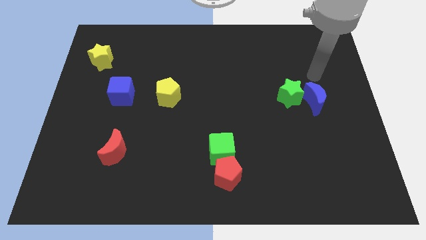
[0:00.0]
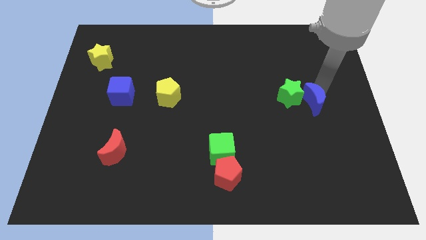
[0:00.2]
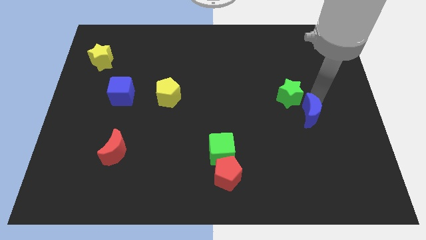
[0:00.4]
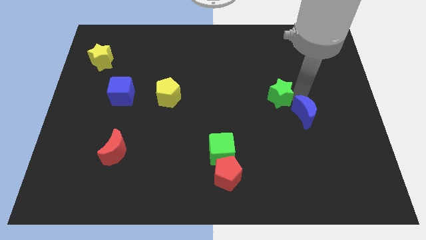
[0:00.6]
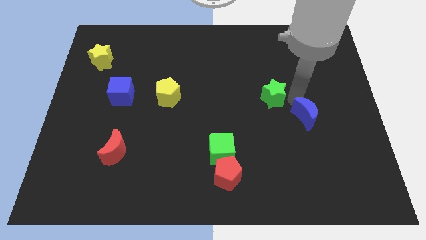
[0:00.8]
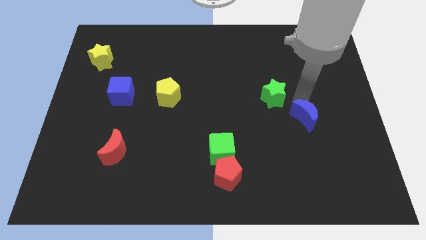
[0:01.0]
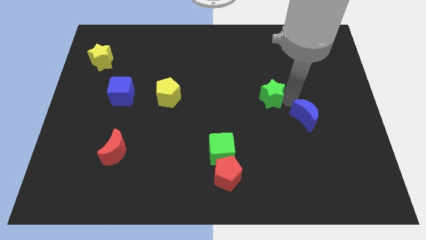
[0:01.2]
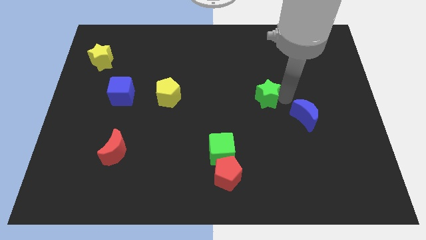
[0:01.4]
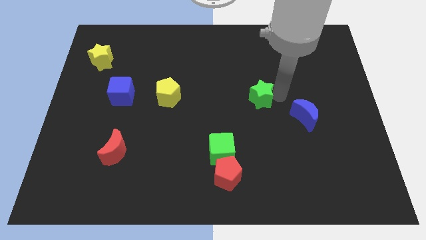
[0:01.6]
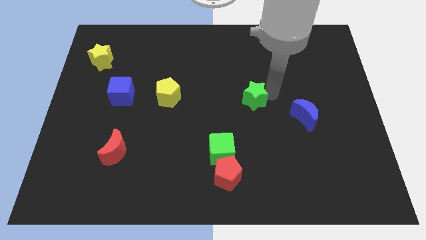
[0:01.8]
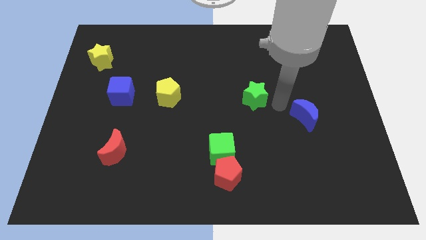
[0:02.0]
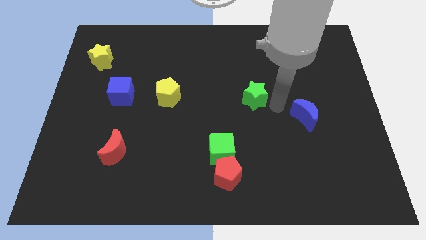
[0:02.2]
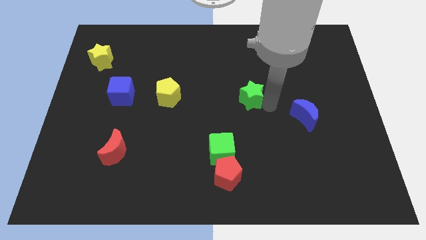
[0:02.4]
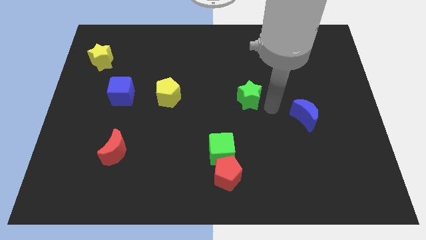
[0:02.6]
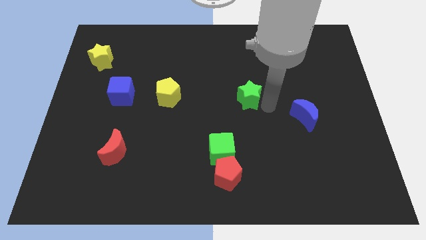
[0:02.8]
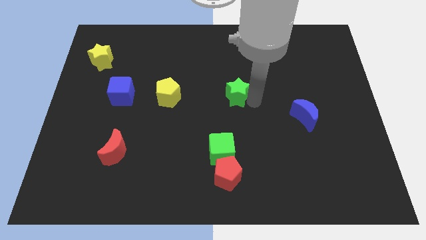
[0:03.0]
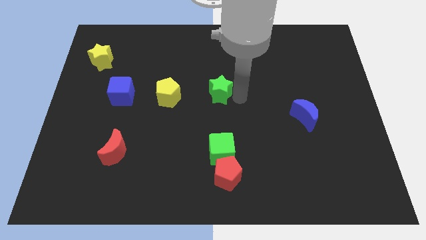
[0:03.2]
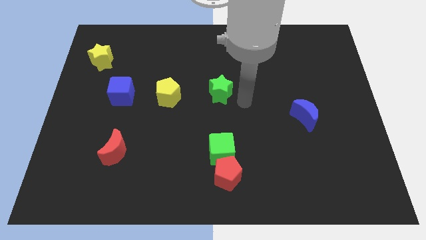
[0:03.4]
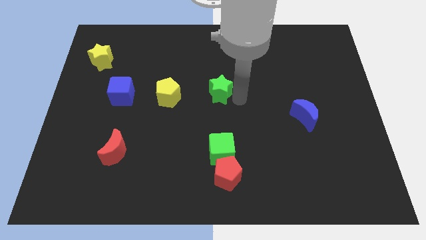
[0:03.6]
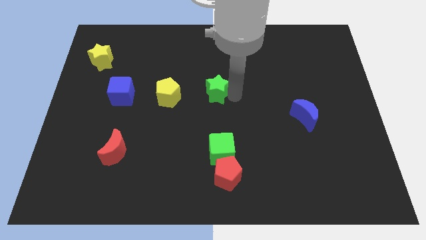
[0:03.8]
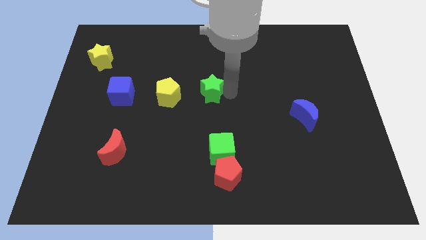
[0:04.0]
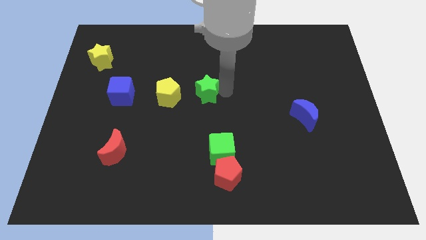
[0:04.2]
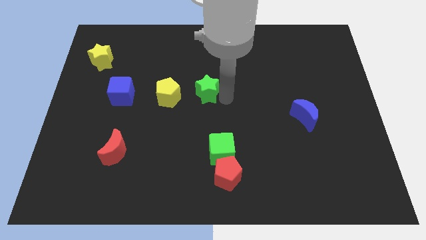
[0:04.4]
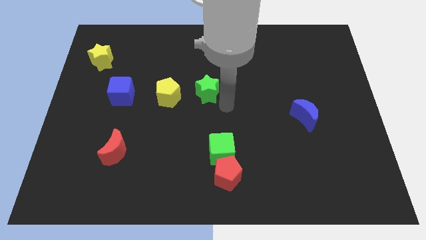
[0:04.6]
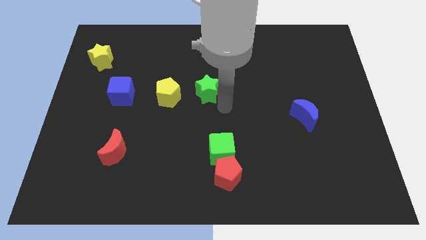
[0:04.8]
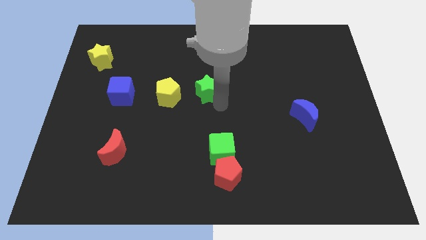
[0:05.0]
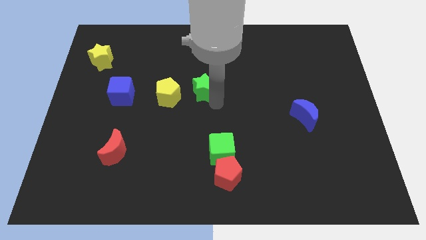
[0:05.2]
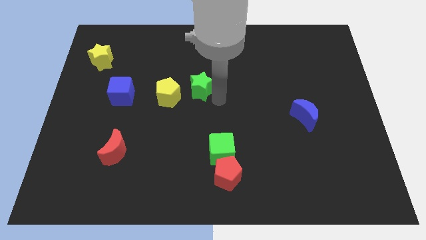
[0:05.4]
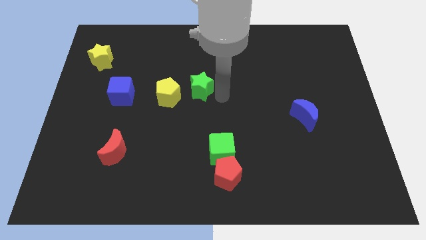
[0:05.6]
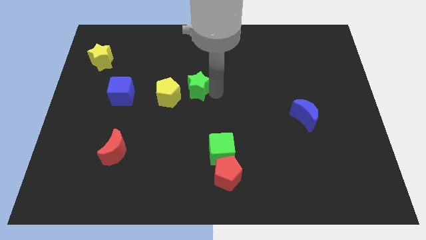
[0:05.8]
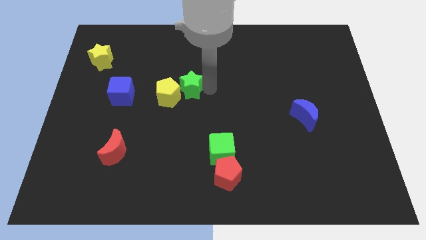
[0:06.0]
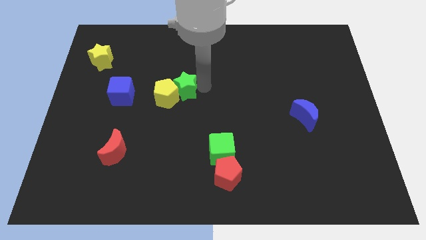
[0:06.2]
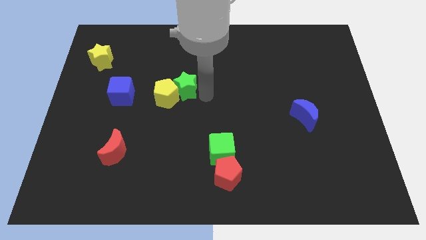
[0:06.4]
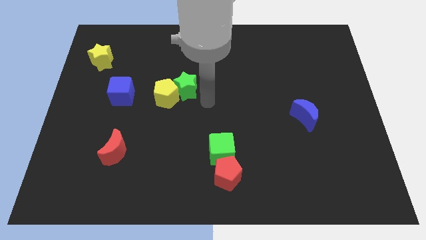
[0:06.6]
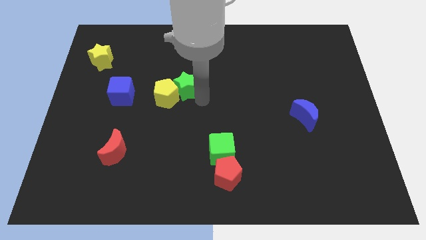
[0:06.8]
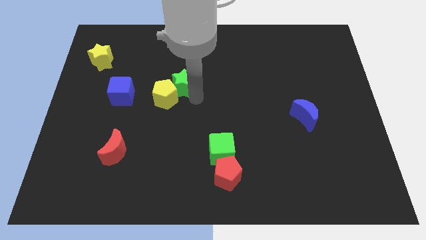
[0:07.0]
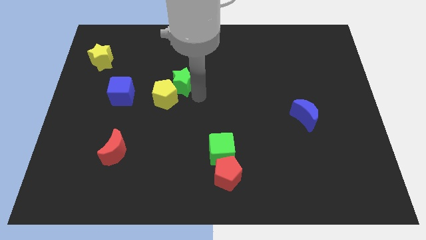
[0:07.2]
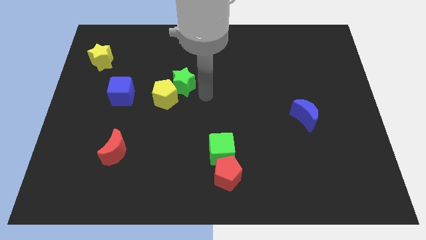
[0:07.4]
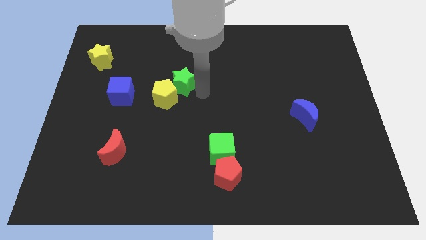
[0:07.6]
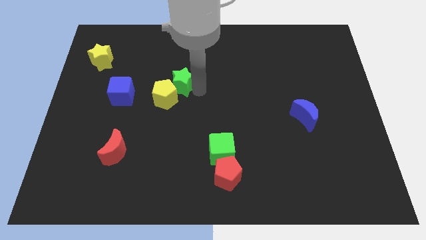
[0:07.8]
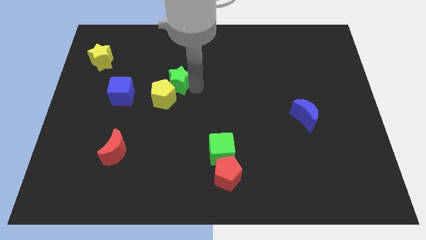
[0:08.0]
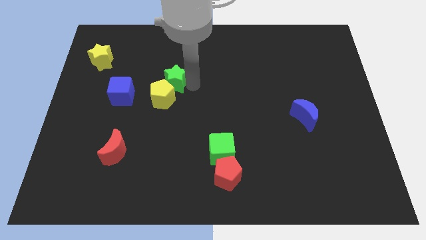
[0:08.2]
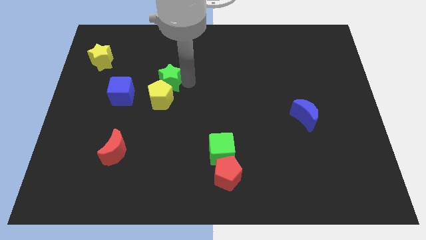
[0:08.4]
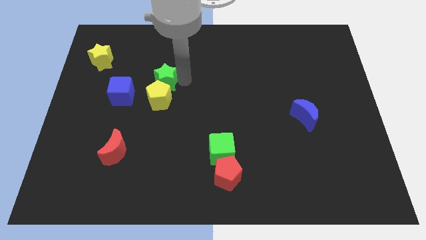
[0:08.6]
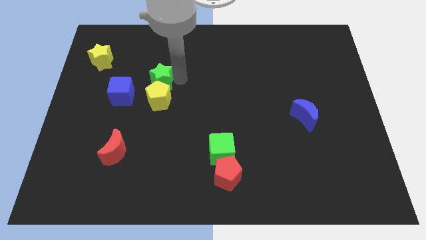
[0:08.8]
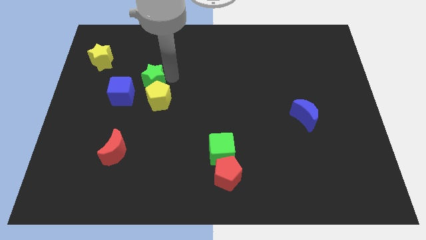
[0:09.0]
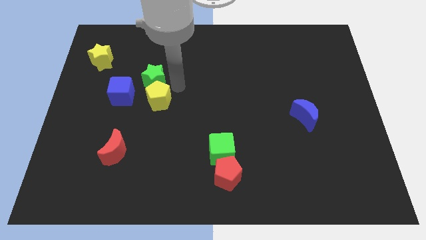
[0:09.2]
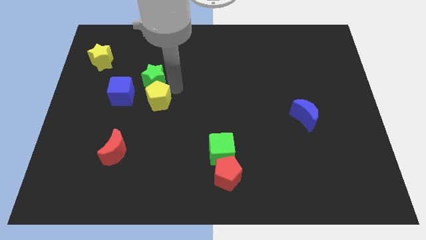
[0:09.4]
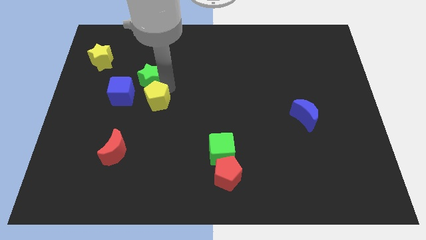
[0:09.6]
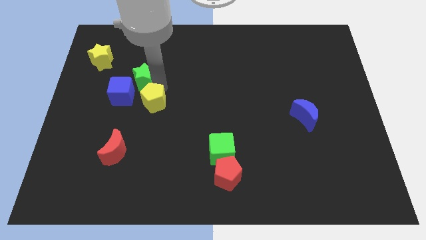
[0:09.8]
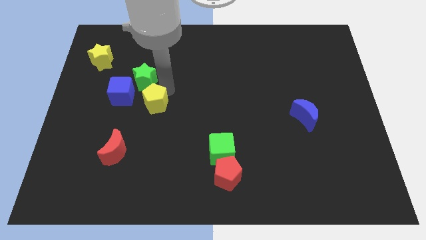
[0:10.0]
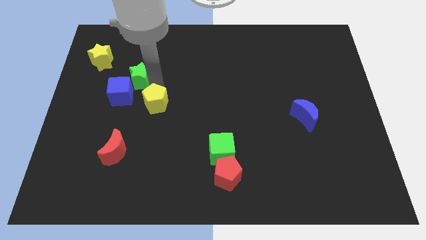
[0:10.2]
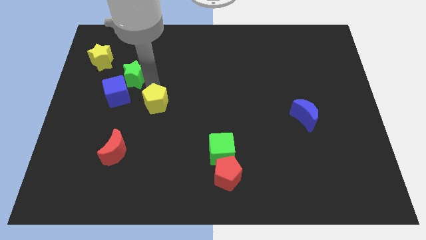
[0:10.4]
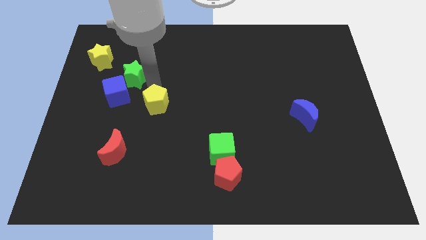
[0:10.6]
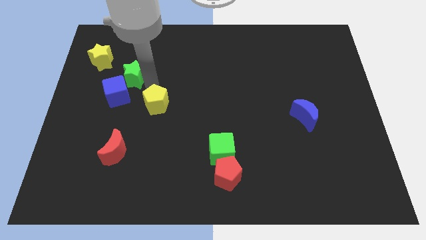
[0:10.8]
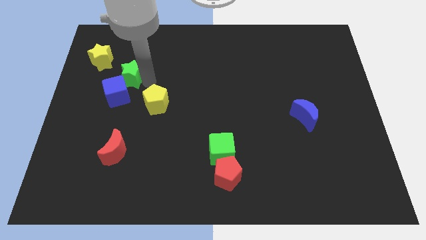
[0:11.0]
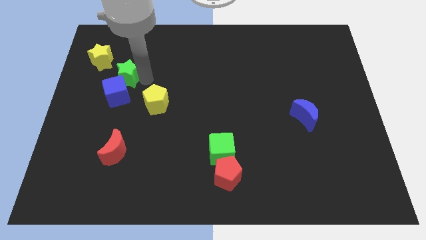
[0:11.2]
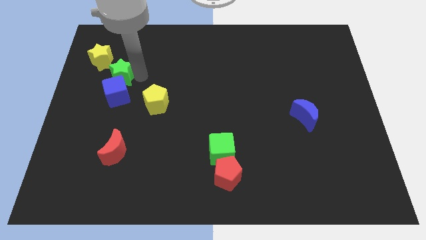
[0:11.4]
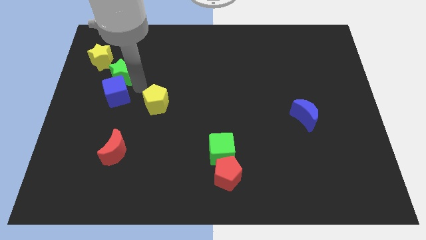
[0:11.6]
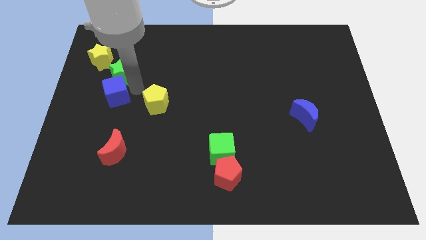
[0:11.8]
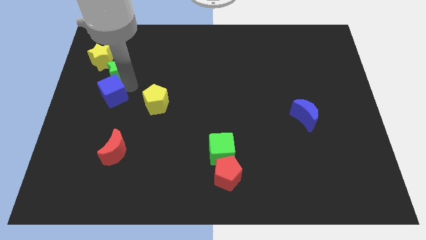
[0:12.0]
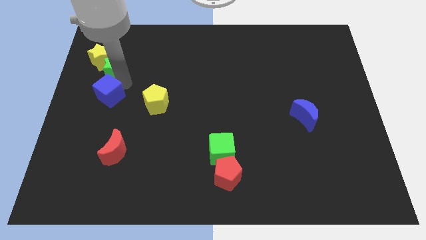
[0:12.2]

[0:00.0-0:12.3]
move the green star towards the yellow star

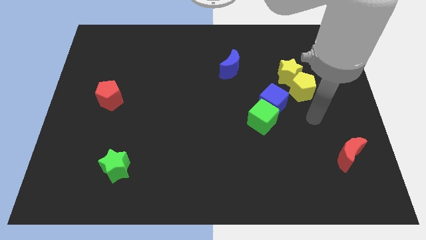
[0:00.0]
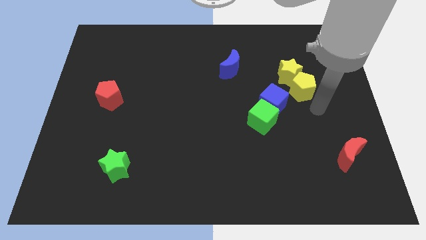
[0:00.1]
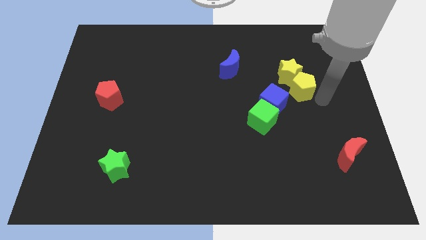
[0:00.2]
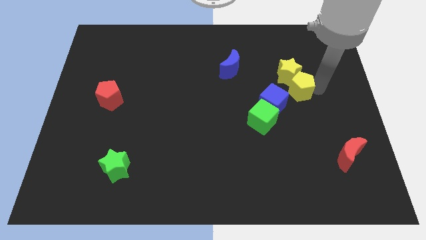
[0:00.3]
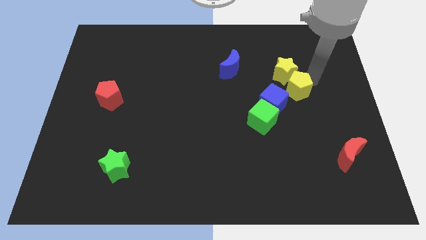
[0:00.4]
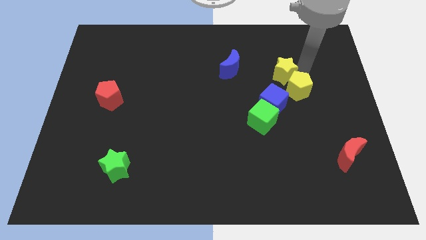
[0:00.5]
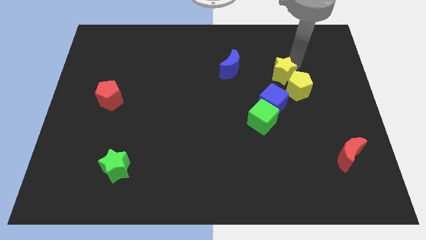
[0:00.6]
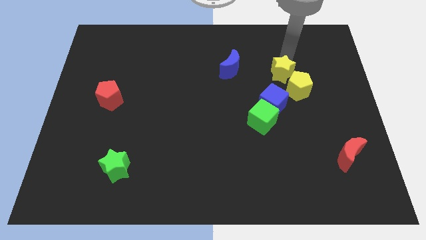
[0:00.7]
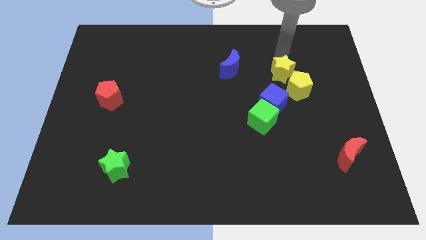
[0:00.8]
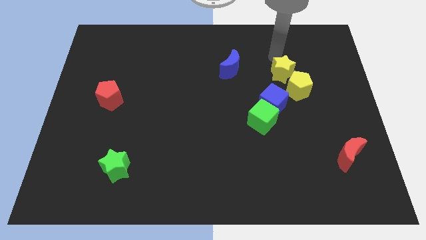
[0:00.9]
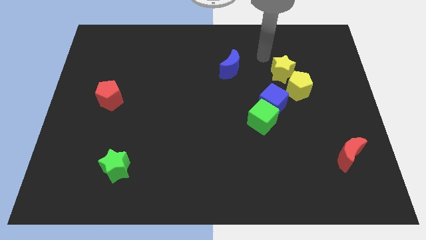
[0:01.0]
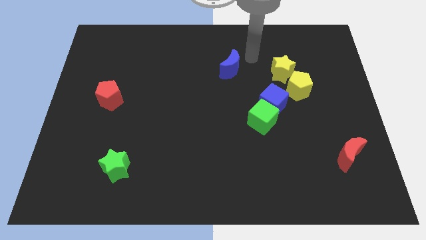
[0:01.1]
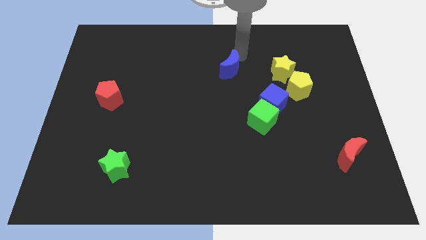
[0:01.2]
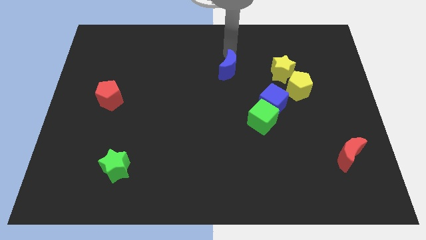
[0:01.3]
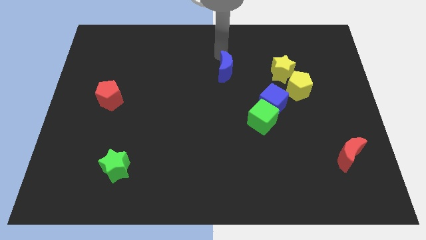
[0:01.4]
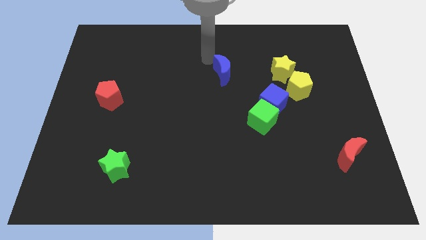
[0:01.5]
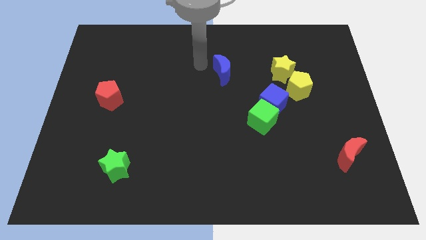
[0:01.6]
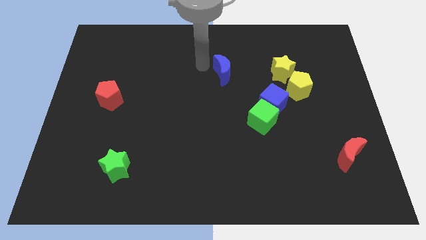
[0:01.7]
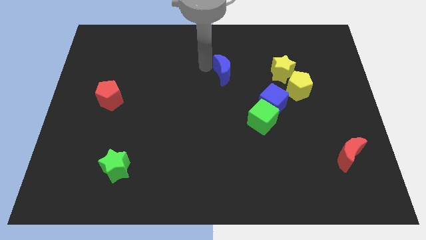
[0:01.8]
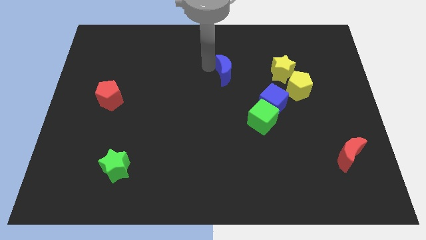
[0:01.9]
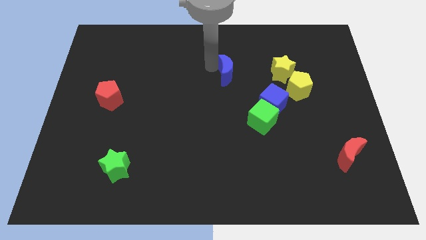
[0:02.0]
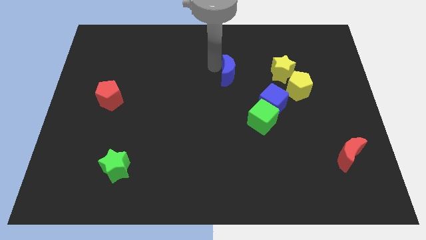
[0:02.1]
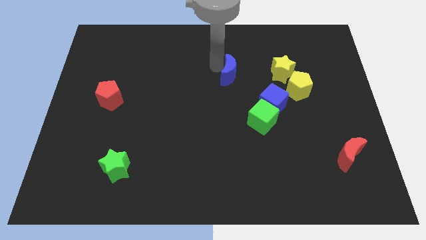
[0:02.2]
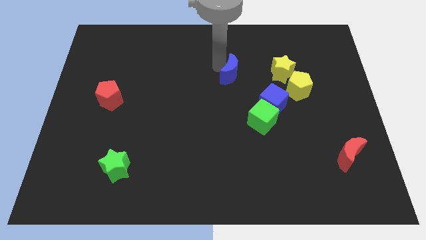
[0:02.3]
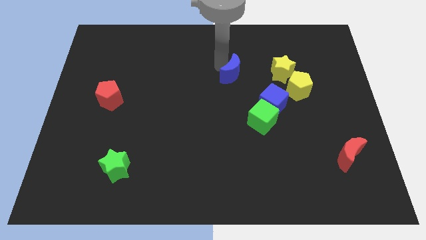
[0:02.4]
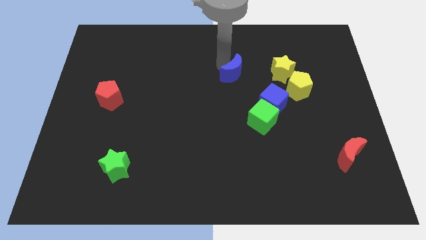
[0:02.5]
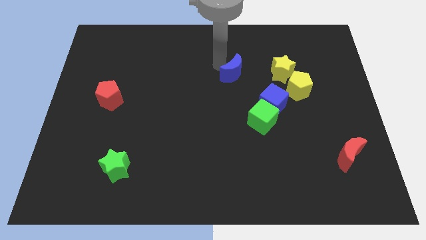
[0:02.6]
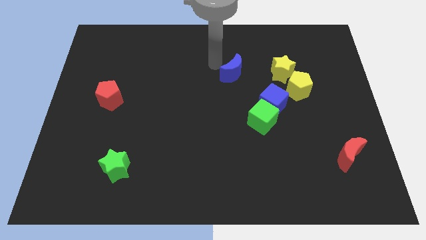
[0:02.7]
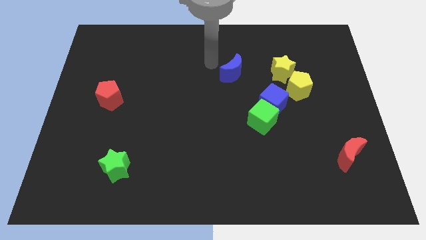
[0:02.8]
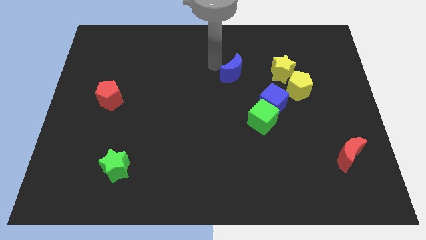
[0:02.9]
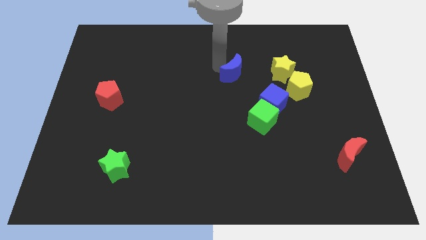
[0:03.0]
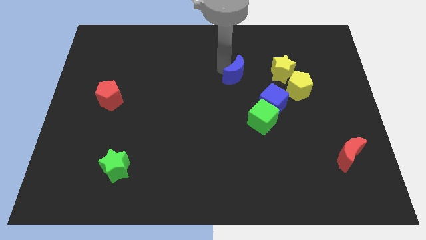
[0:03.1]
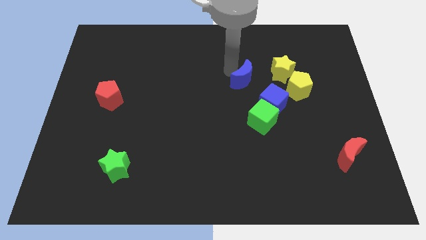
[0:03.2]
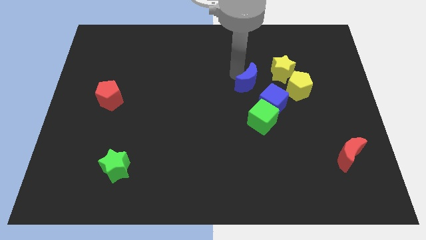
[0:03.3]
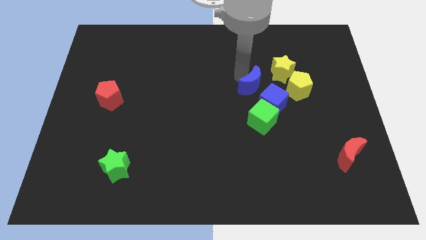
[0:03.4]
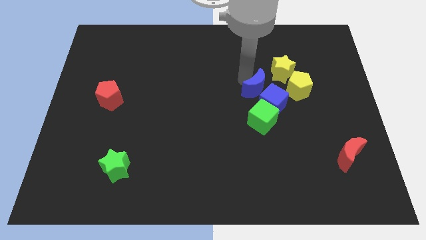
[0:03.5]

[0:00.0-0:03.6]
put the blue moon towards the blue cube
